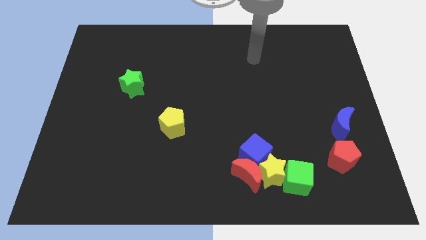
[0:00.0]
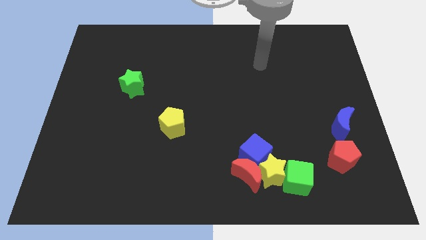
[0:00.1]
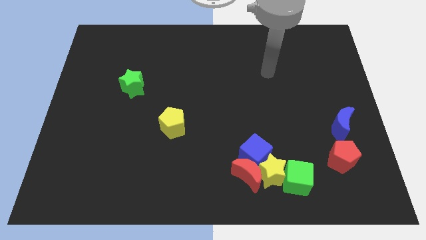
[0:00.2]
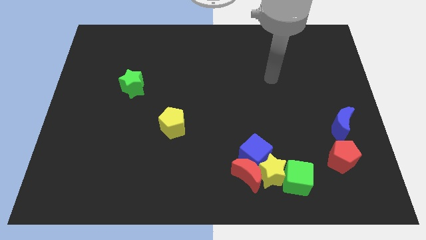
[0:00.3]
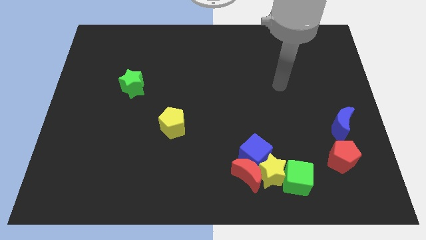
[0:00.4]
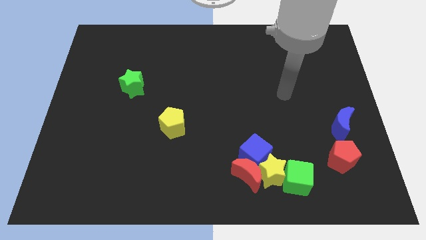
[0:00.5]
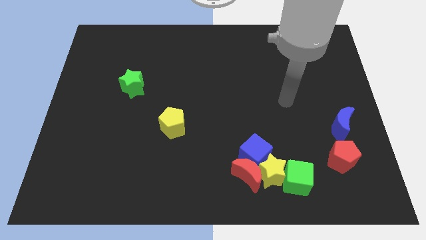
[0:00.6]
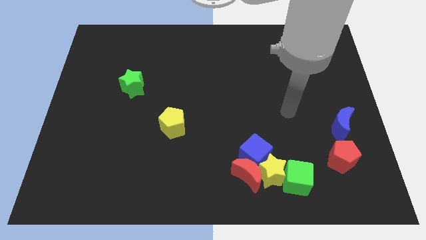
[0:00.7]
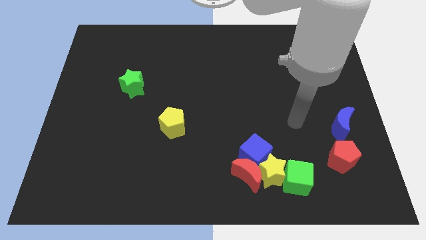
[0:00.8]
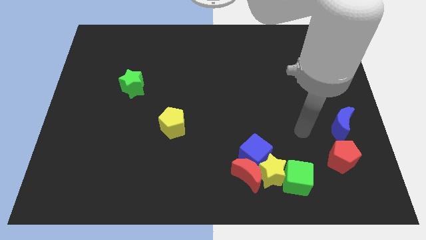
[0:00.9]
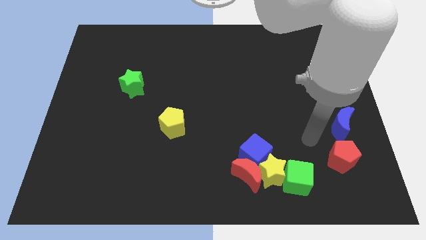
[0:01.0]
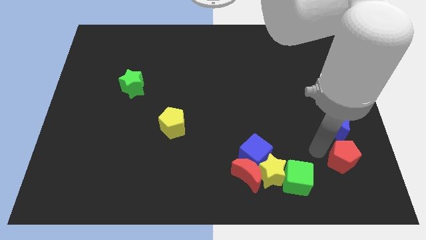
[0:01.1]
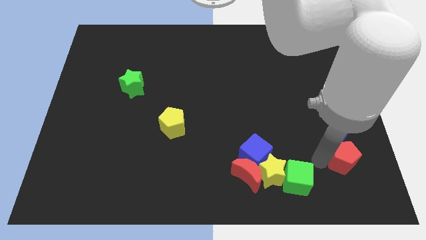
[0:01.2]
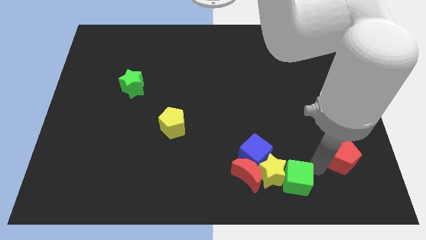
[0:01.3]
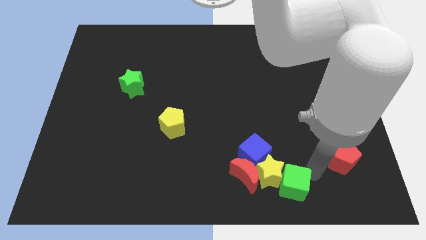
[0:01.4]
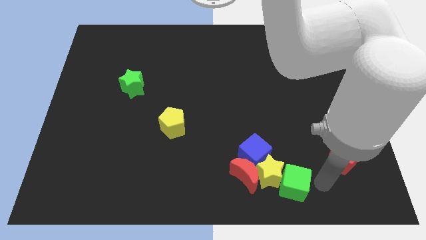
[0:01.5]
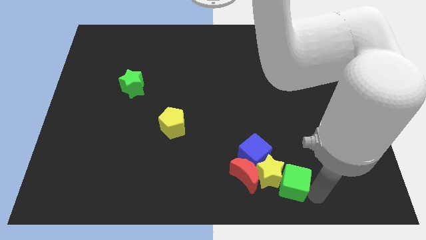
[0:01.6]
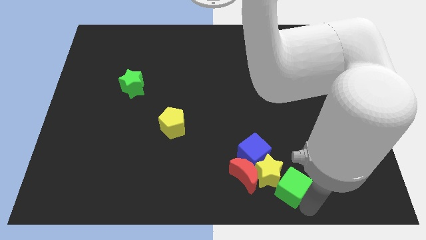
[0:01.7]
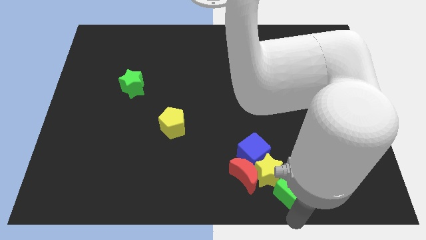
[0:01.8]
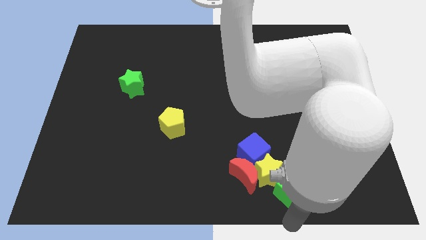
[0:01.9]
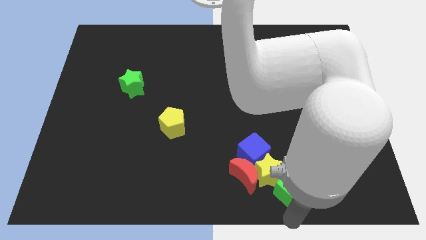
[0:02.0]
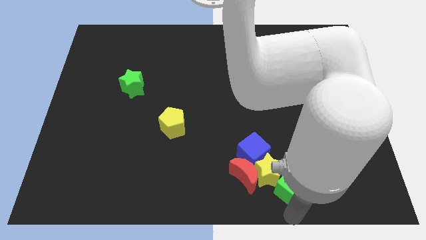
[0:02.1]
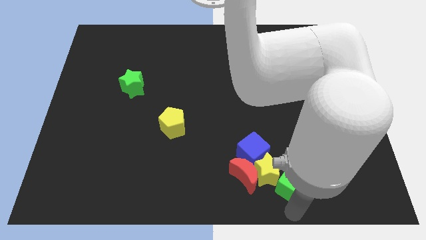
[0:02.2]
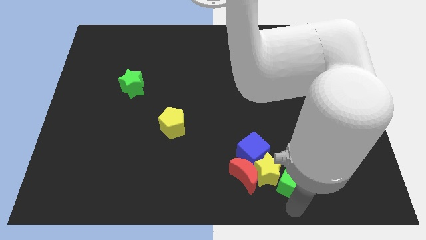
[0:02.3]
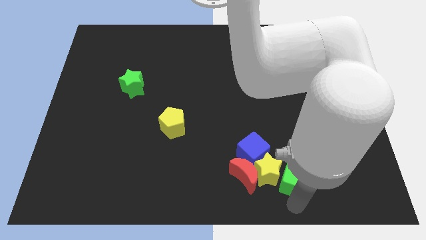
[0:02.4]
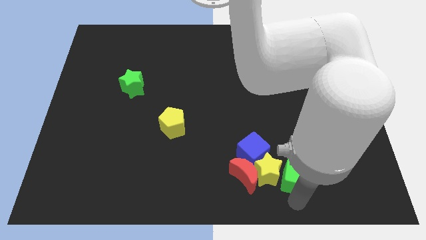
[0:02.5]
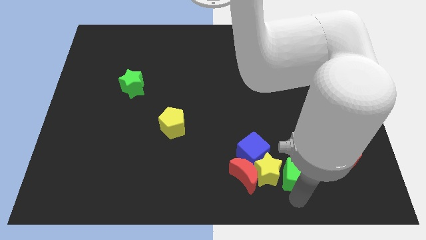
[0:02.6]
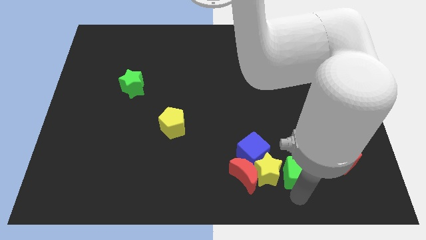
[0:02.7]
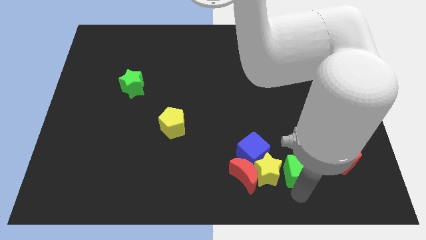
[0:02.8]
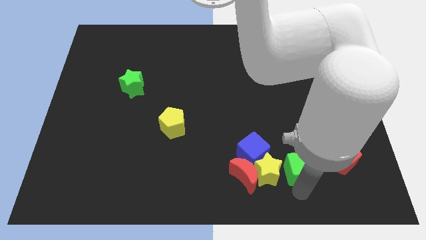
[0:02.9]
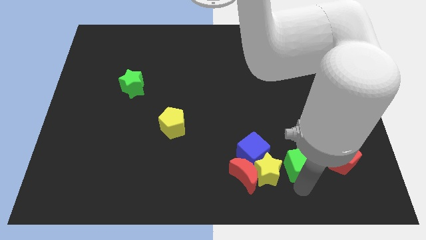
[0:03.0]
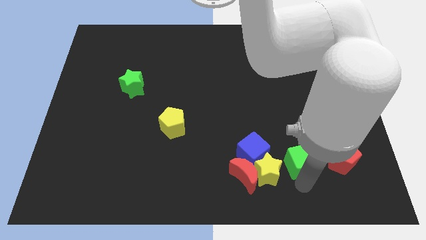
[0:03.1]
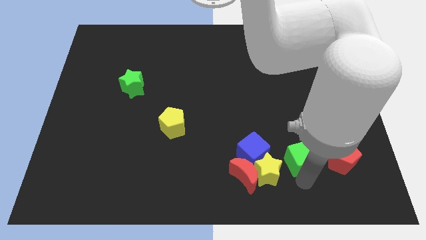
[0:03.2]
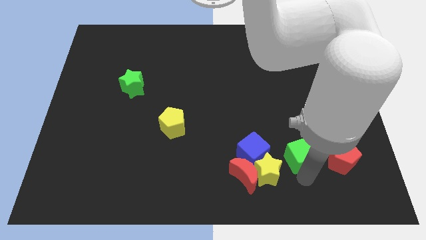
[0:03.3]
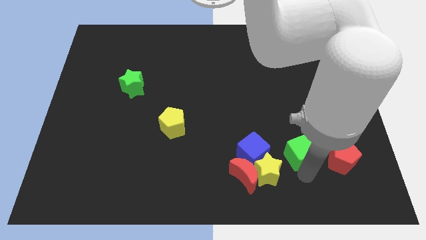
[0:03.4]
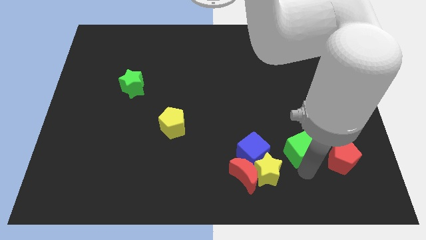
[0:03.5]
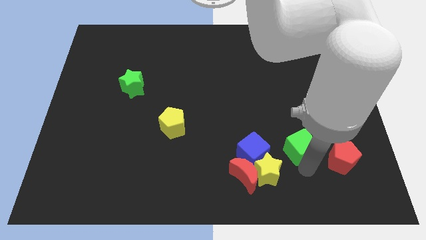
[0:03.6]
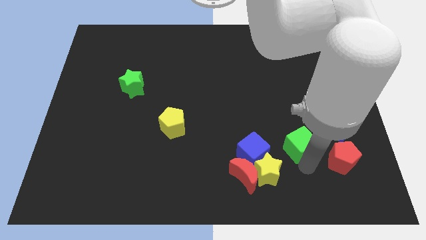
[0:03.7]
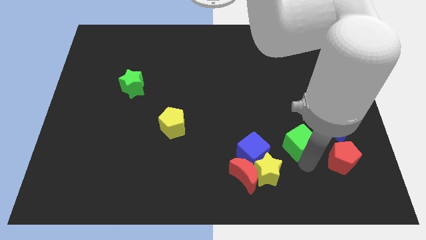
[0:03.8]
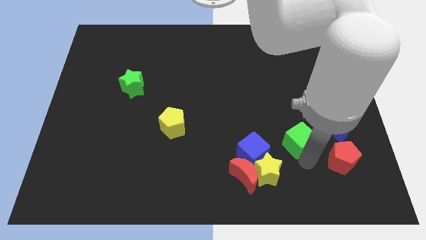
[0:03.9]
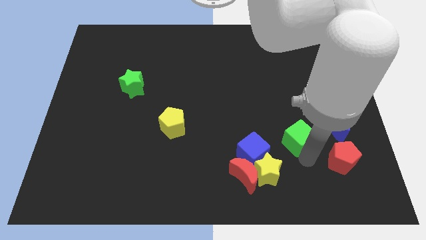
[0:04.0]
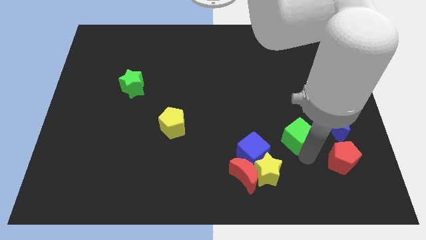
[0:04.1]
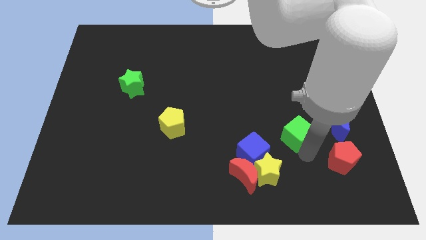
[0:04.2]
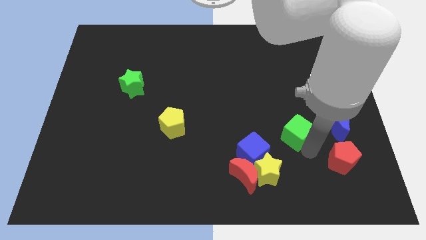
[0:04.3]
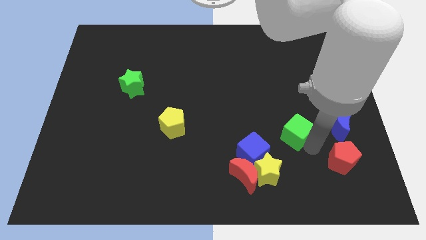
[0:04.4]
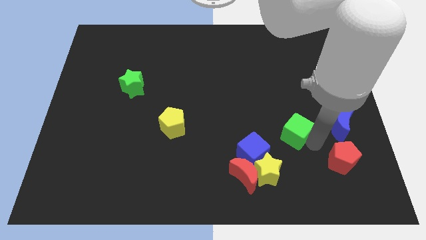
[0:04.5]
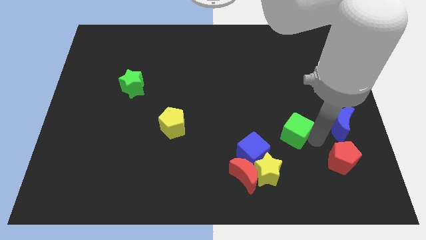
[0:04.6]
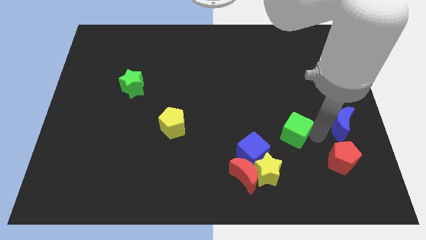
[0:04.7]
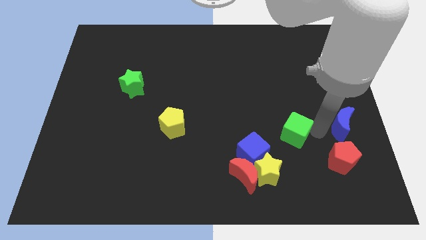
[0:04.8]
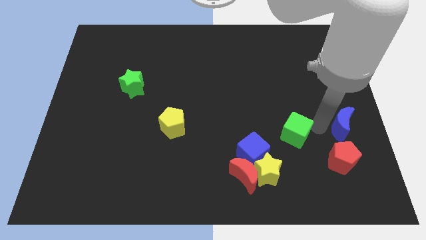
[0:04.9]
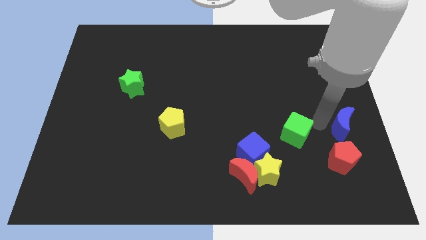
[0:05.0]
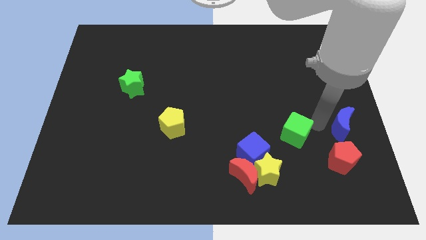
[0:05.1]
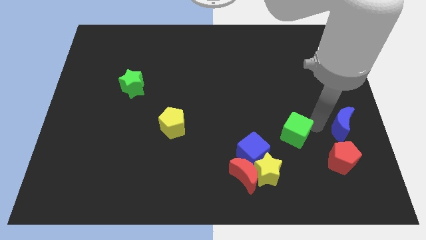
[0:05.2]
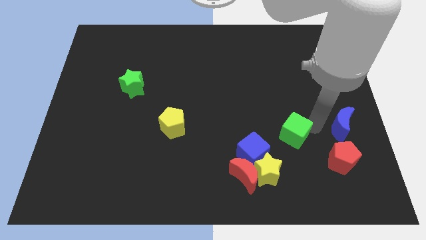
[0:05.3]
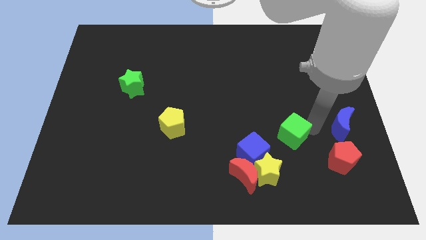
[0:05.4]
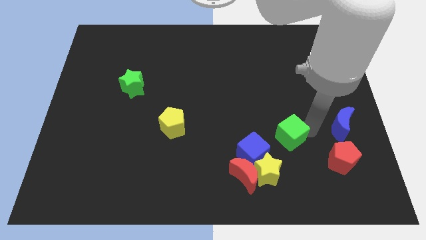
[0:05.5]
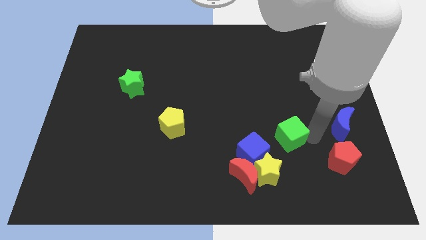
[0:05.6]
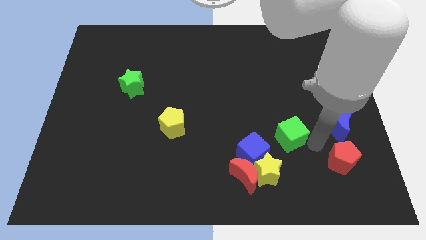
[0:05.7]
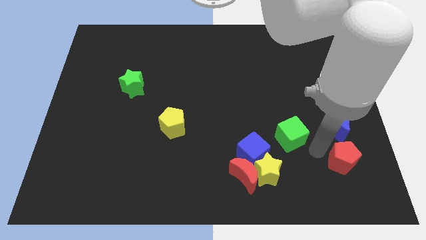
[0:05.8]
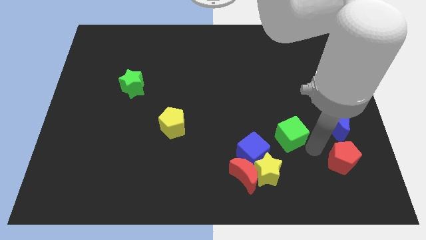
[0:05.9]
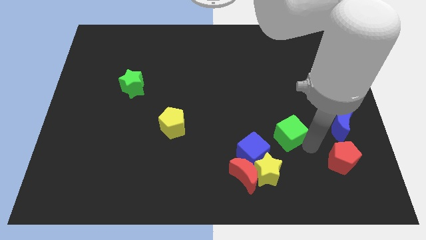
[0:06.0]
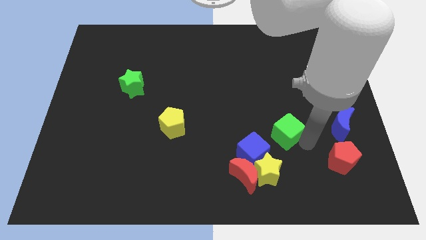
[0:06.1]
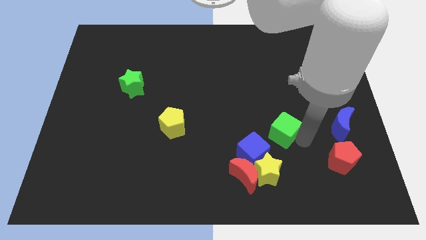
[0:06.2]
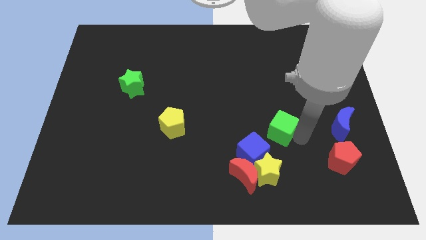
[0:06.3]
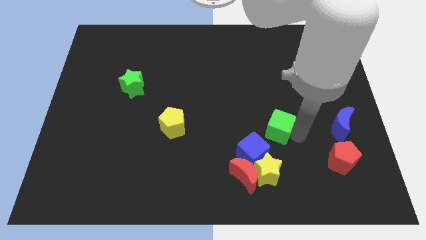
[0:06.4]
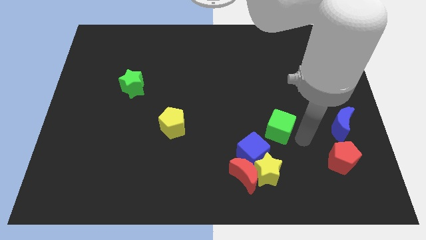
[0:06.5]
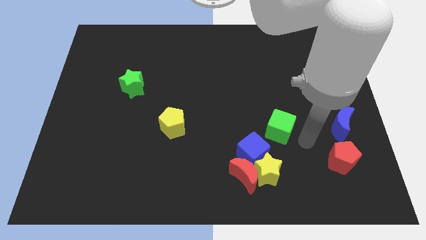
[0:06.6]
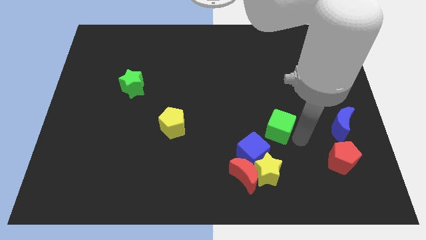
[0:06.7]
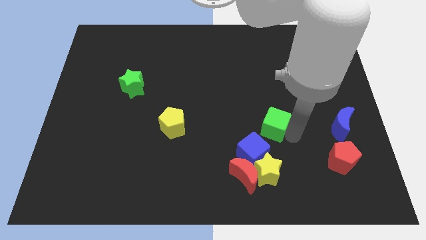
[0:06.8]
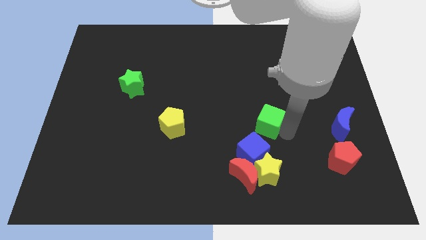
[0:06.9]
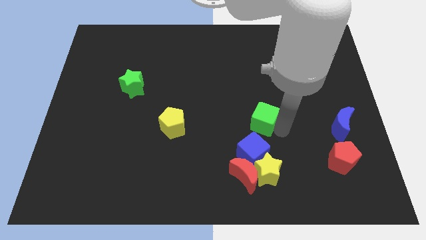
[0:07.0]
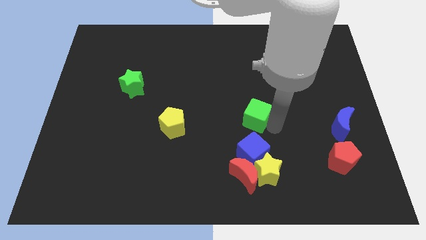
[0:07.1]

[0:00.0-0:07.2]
push the green cube to the middle
